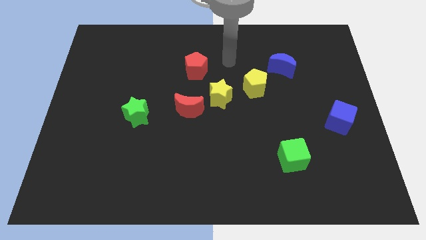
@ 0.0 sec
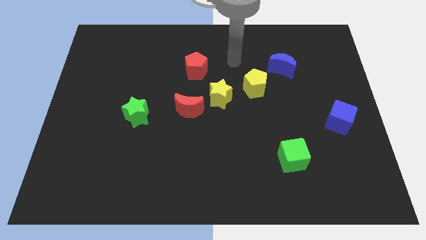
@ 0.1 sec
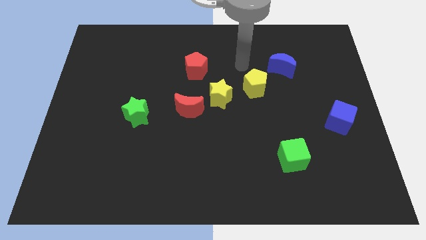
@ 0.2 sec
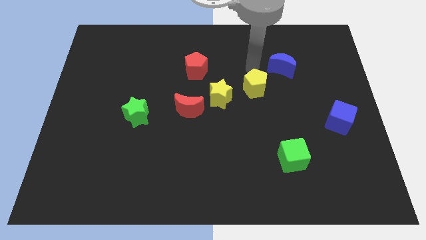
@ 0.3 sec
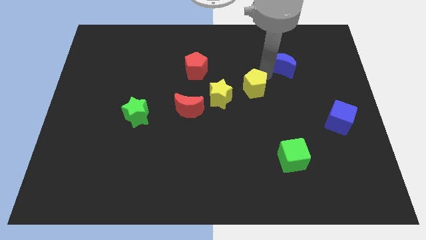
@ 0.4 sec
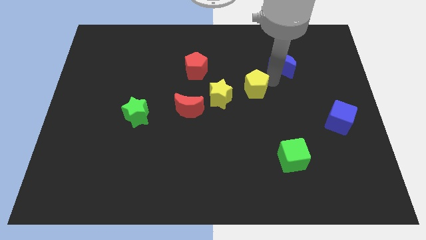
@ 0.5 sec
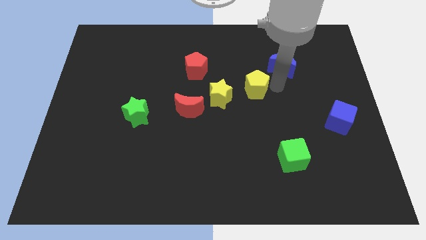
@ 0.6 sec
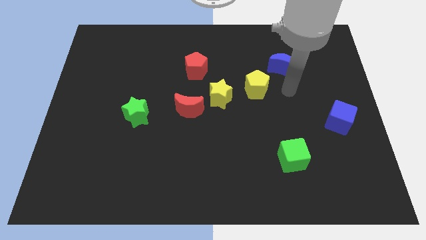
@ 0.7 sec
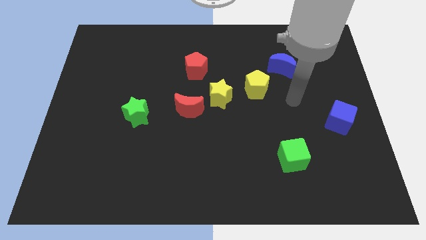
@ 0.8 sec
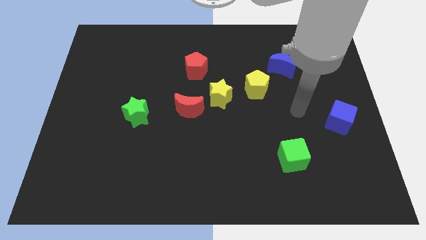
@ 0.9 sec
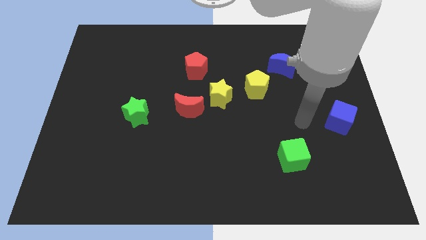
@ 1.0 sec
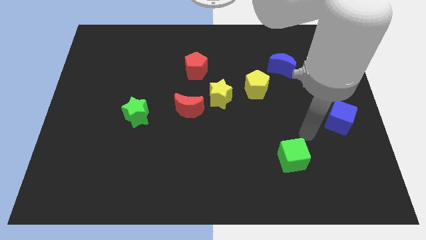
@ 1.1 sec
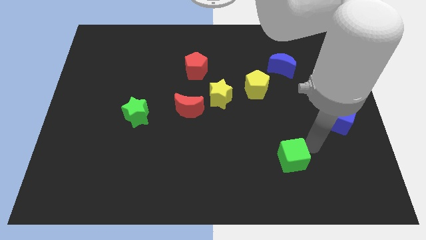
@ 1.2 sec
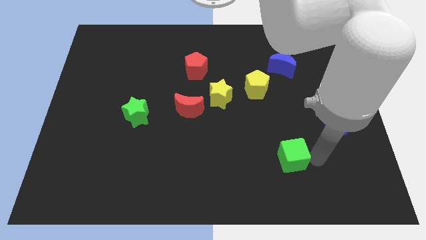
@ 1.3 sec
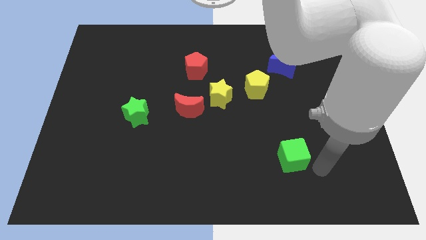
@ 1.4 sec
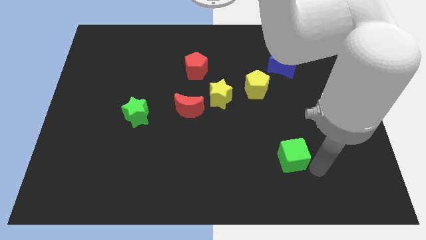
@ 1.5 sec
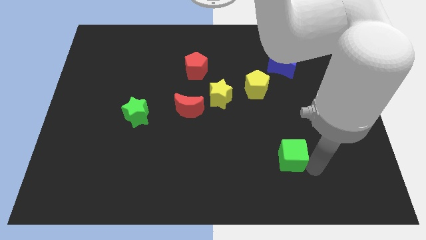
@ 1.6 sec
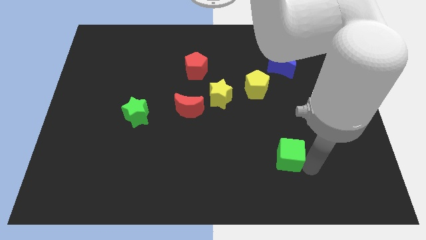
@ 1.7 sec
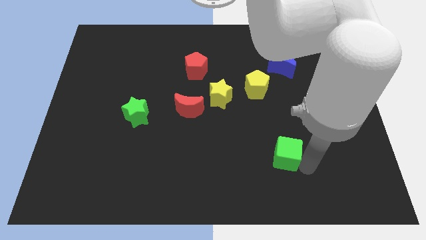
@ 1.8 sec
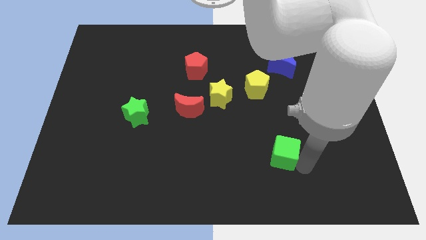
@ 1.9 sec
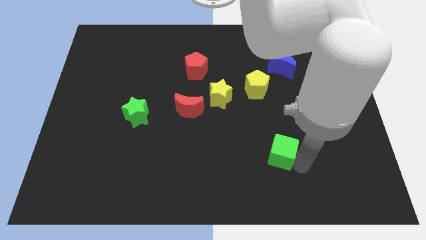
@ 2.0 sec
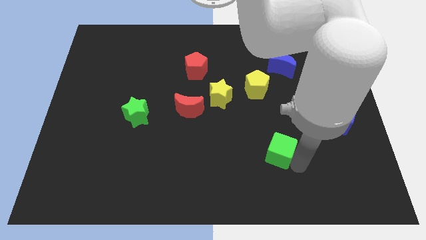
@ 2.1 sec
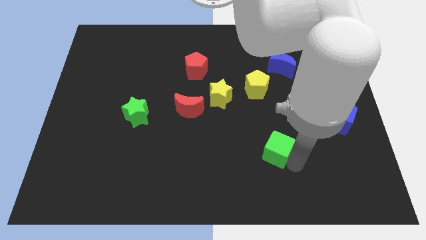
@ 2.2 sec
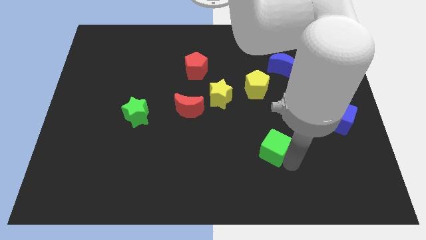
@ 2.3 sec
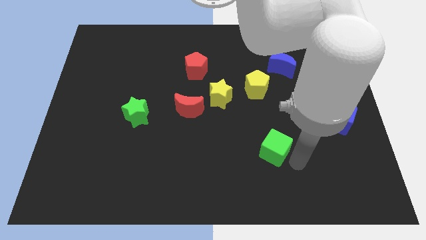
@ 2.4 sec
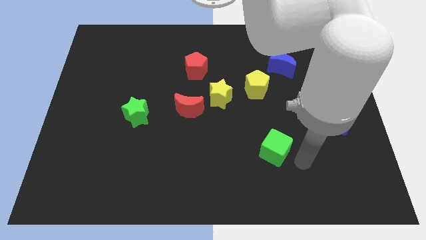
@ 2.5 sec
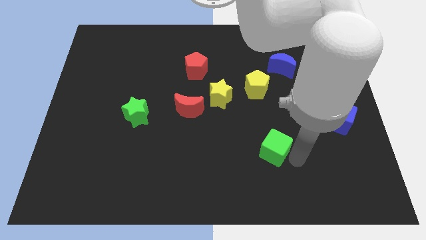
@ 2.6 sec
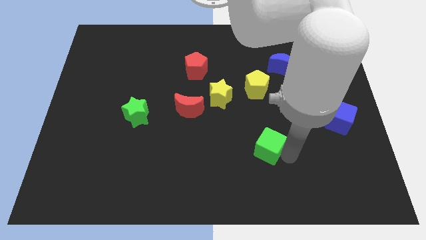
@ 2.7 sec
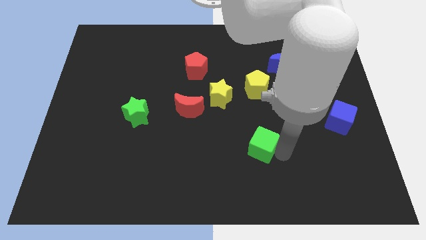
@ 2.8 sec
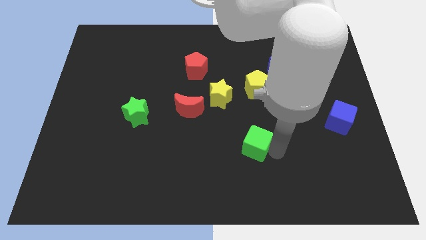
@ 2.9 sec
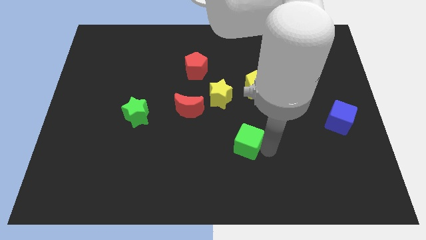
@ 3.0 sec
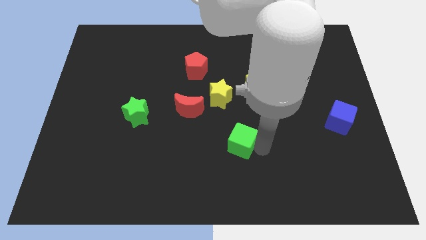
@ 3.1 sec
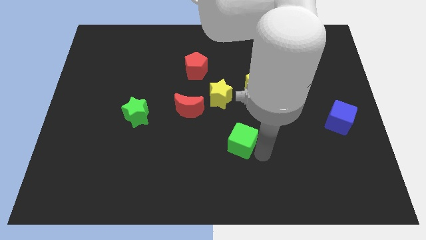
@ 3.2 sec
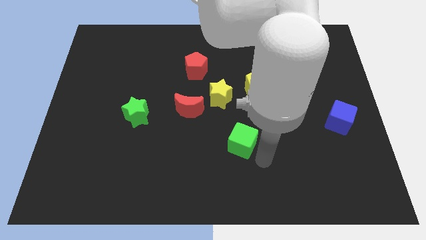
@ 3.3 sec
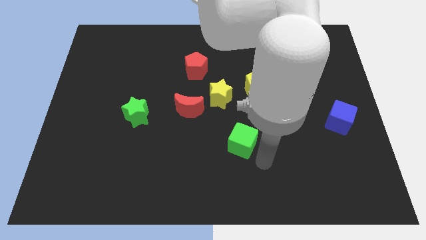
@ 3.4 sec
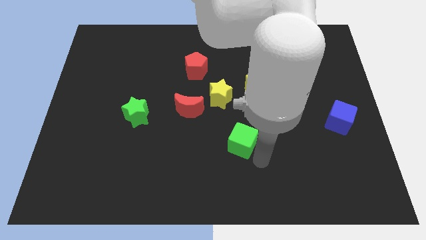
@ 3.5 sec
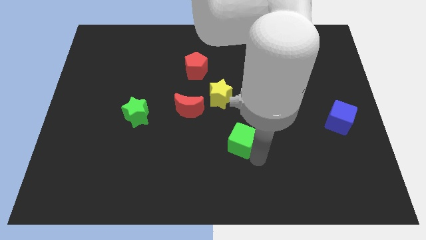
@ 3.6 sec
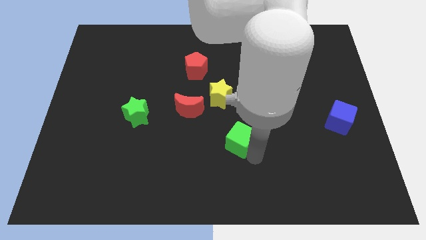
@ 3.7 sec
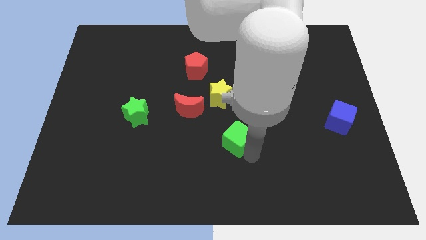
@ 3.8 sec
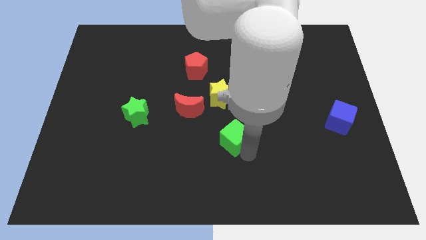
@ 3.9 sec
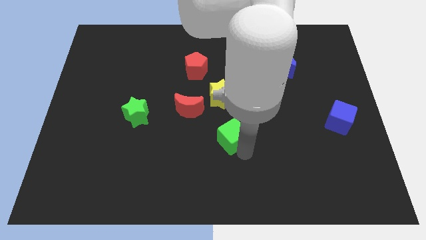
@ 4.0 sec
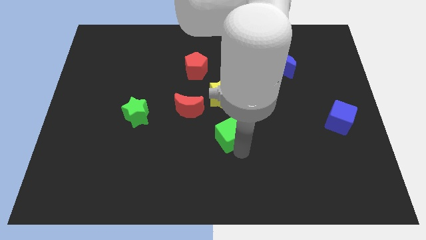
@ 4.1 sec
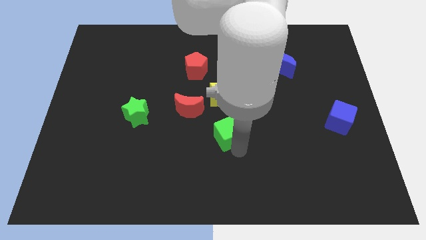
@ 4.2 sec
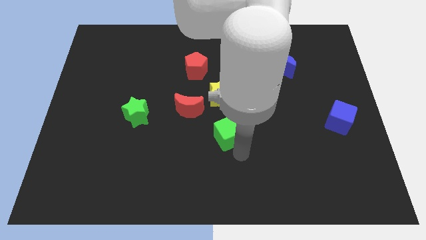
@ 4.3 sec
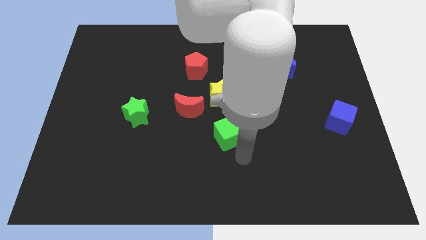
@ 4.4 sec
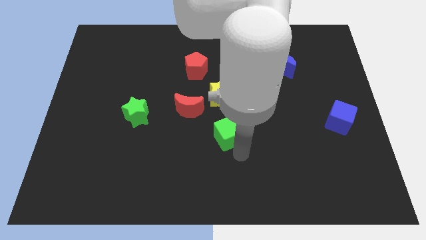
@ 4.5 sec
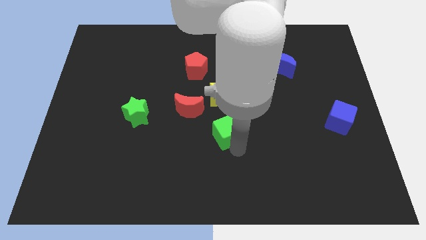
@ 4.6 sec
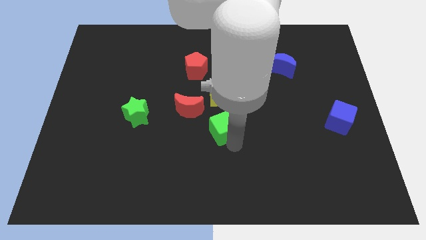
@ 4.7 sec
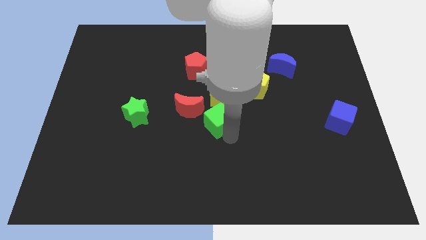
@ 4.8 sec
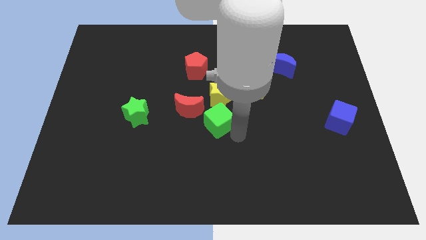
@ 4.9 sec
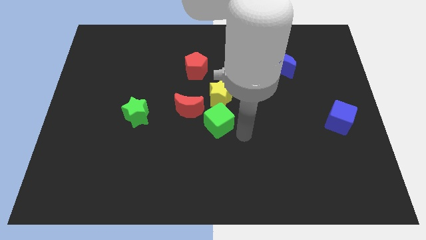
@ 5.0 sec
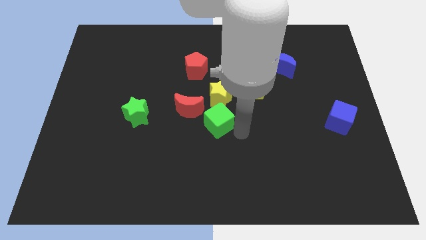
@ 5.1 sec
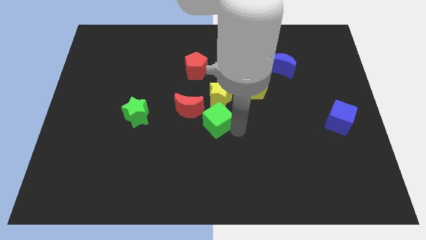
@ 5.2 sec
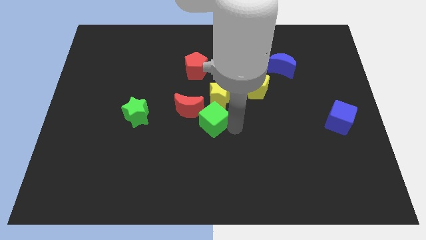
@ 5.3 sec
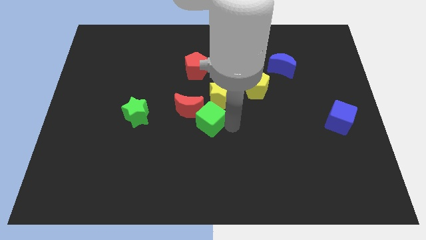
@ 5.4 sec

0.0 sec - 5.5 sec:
push the green cube close to the red moon
